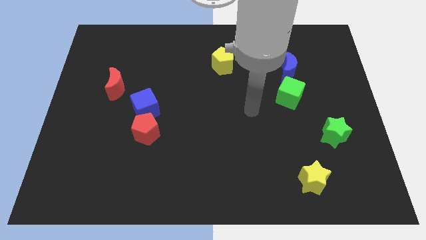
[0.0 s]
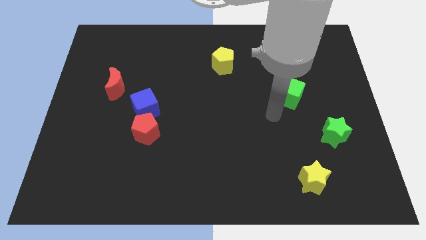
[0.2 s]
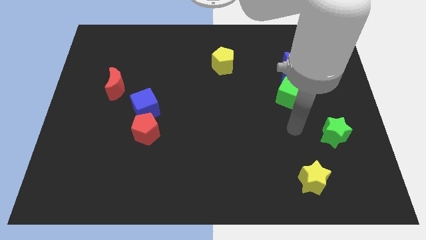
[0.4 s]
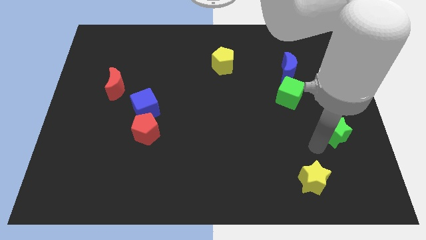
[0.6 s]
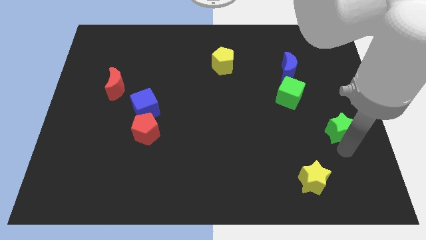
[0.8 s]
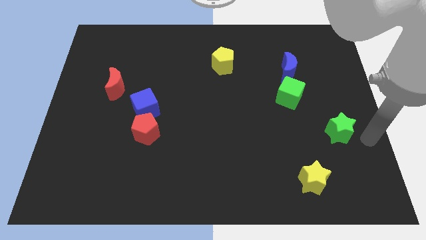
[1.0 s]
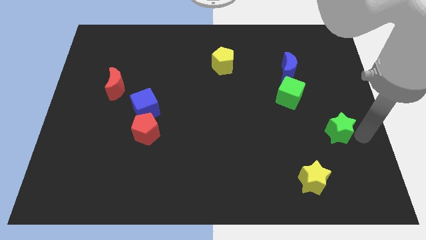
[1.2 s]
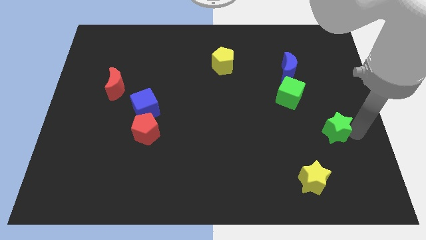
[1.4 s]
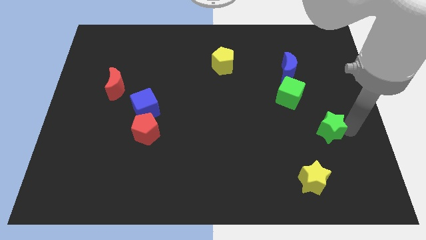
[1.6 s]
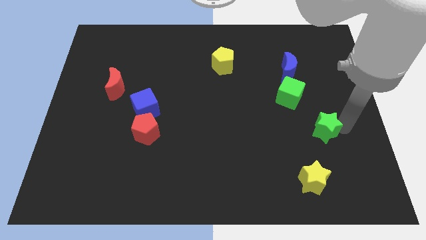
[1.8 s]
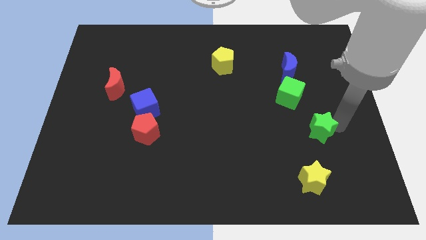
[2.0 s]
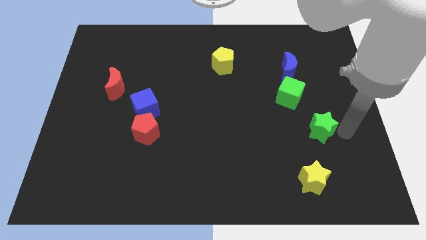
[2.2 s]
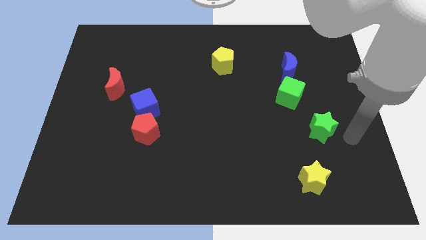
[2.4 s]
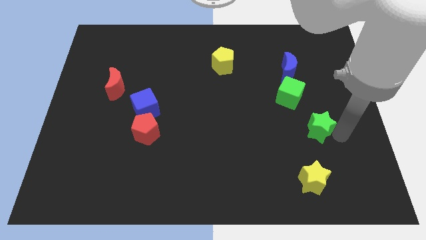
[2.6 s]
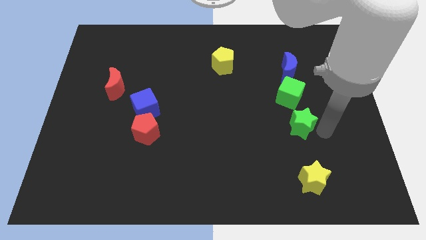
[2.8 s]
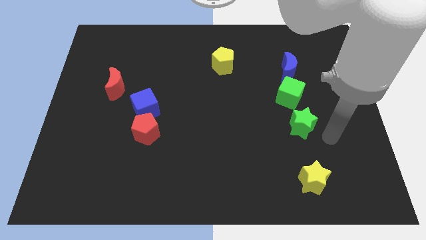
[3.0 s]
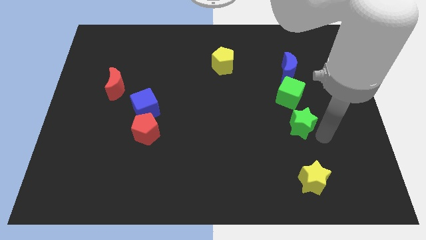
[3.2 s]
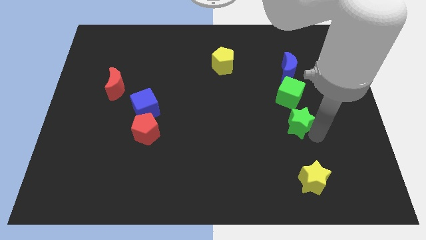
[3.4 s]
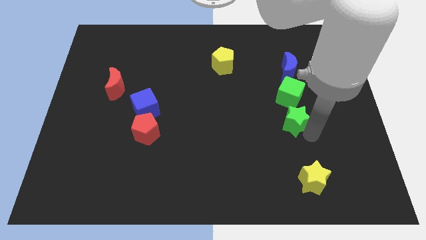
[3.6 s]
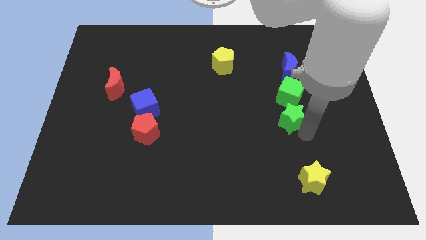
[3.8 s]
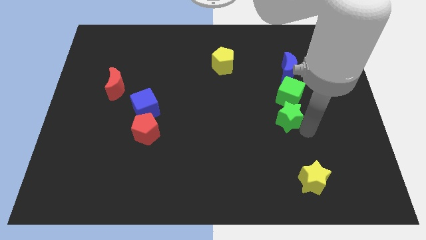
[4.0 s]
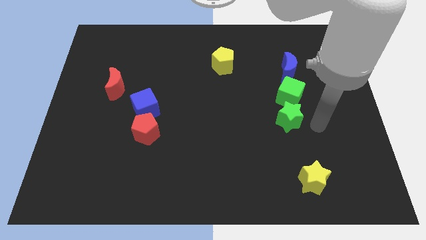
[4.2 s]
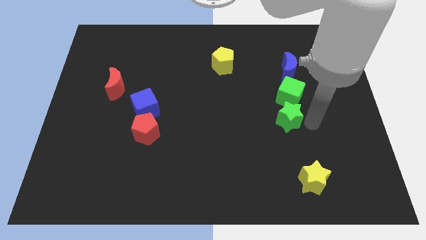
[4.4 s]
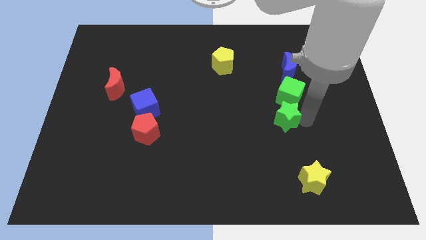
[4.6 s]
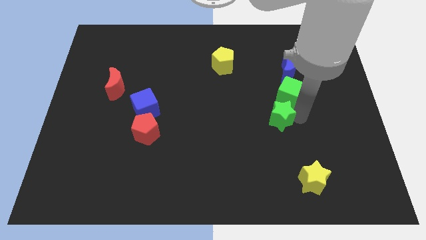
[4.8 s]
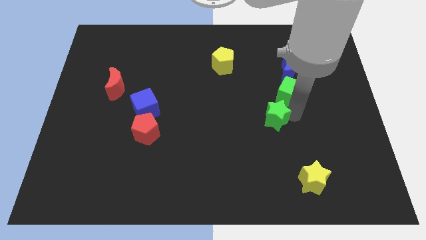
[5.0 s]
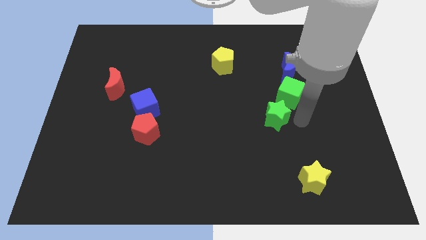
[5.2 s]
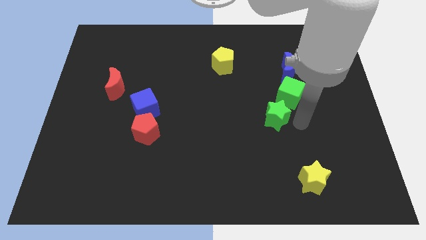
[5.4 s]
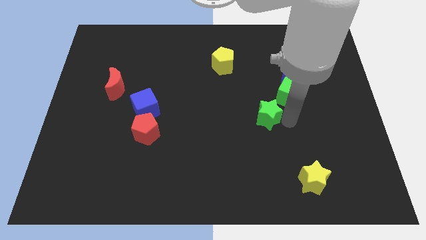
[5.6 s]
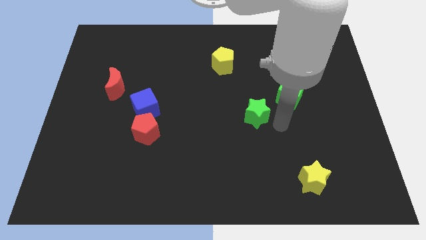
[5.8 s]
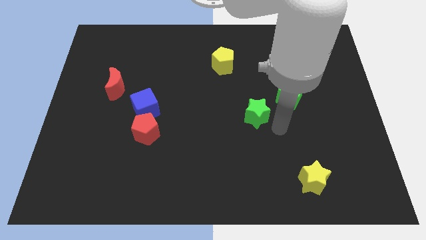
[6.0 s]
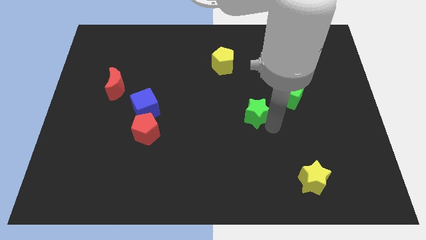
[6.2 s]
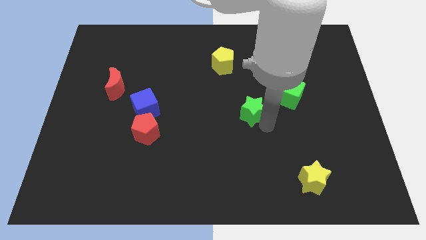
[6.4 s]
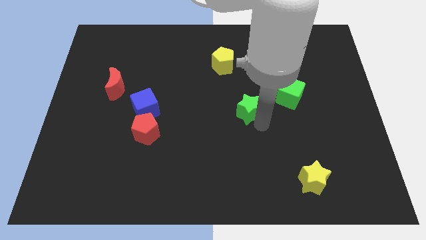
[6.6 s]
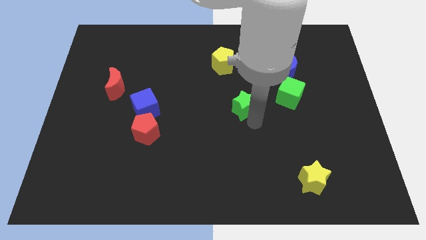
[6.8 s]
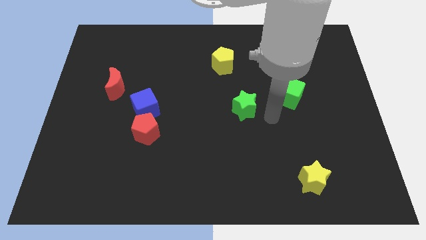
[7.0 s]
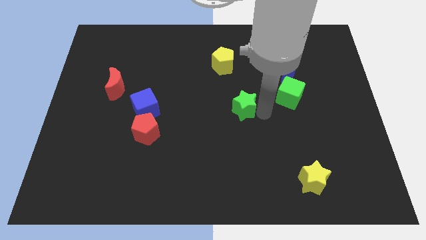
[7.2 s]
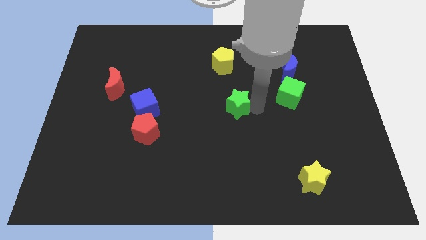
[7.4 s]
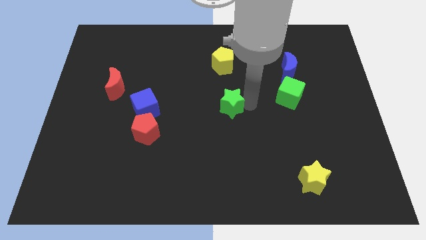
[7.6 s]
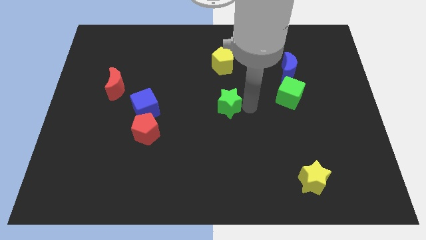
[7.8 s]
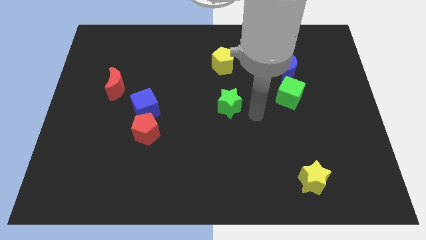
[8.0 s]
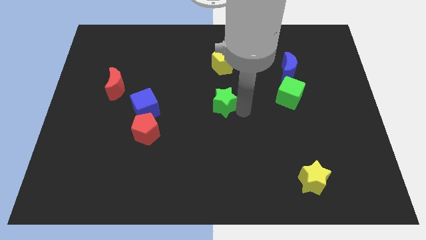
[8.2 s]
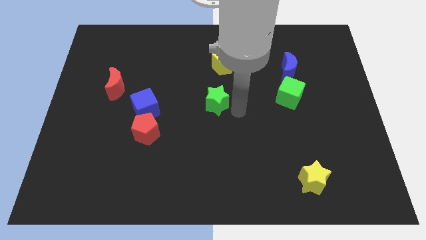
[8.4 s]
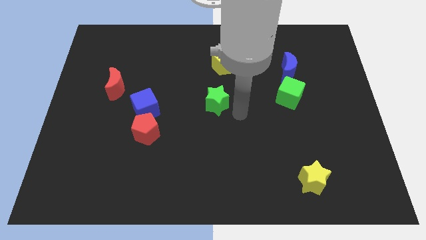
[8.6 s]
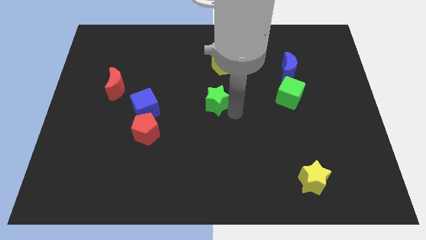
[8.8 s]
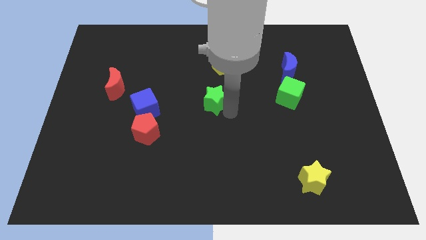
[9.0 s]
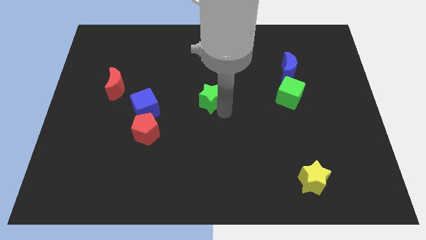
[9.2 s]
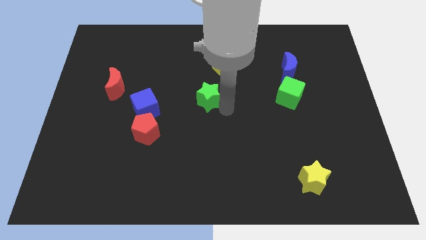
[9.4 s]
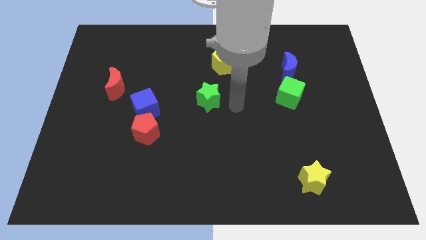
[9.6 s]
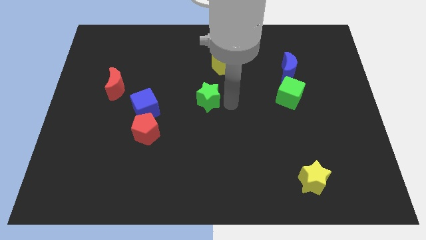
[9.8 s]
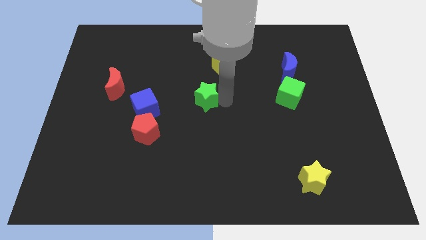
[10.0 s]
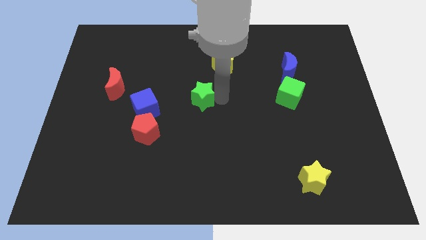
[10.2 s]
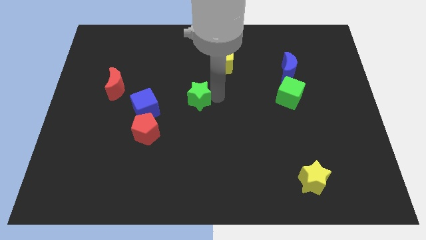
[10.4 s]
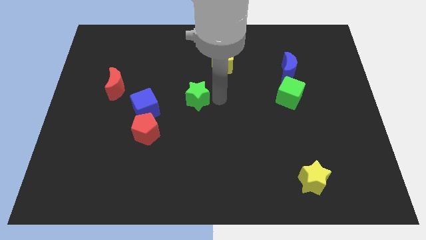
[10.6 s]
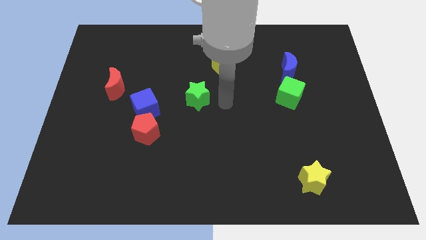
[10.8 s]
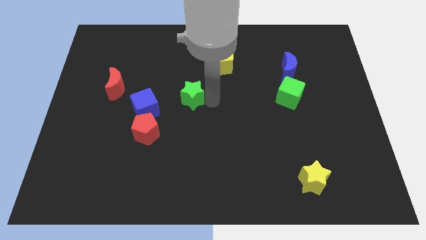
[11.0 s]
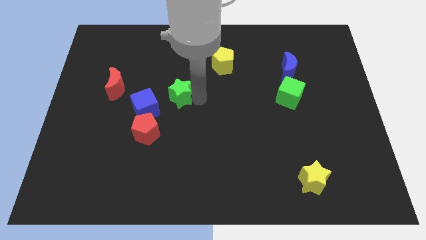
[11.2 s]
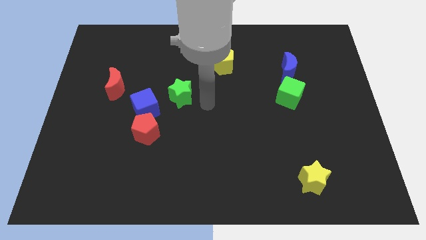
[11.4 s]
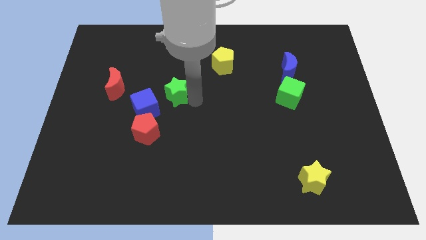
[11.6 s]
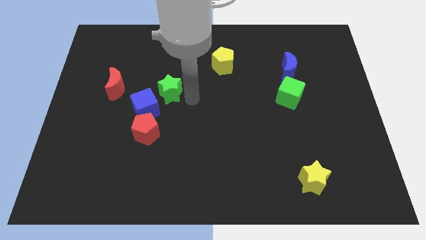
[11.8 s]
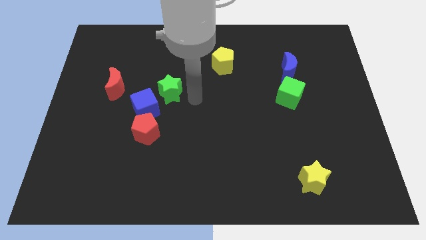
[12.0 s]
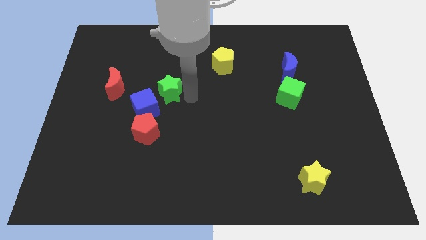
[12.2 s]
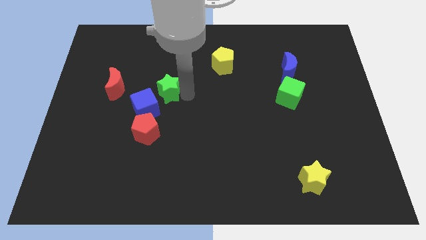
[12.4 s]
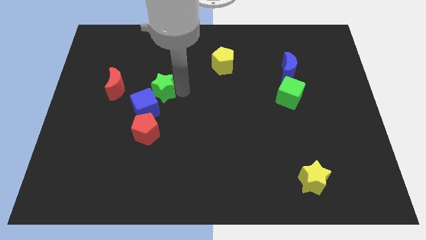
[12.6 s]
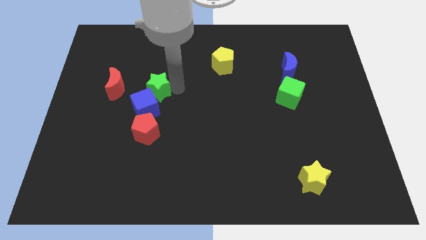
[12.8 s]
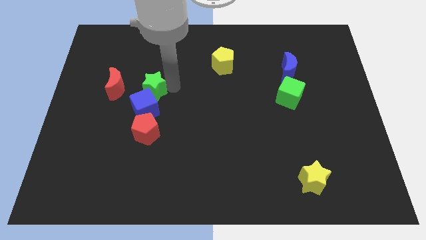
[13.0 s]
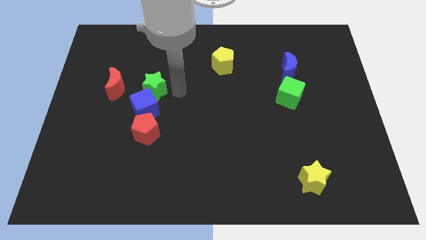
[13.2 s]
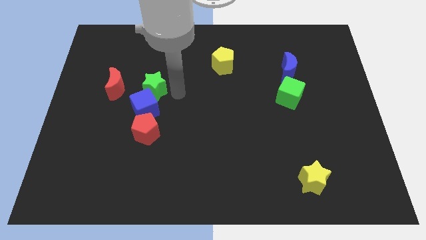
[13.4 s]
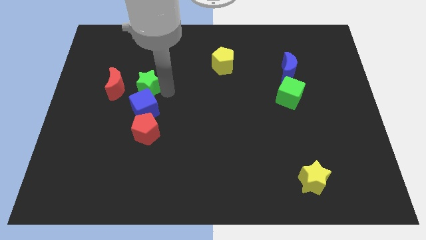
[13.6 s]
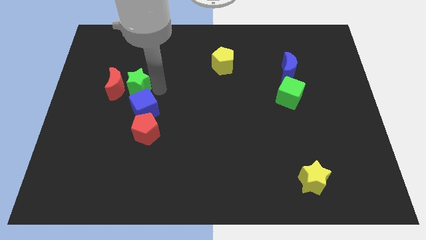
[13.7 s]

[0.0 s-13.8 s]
move the green star towards the red moon

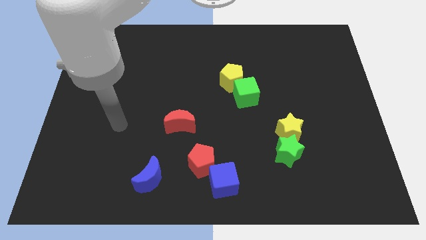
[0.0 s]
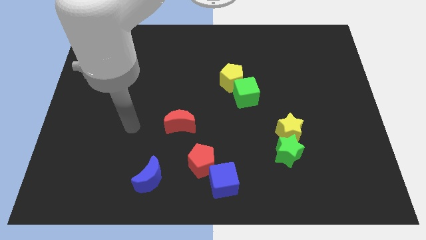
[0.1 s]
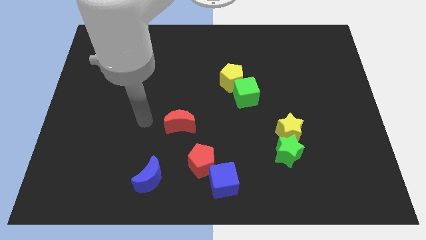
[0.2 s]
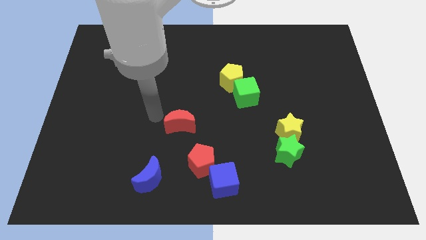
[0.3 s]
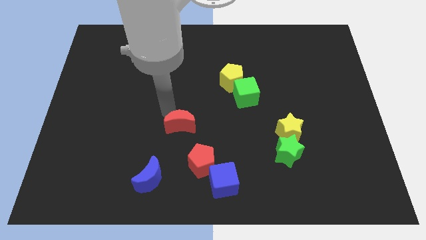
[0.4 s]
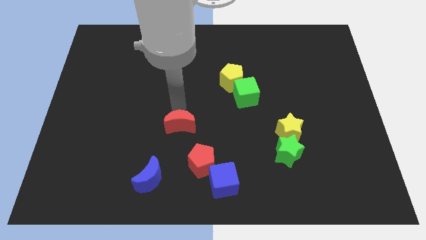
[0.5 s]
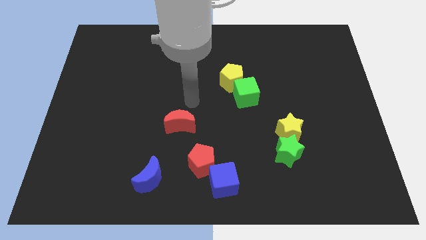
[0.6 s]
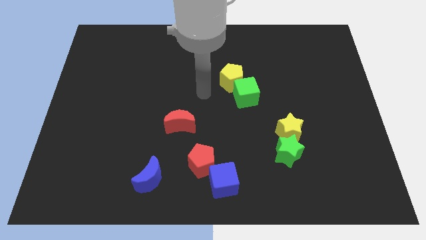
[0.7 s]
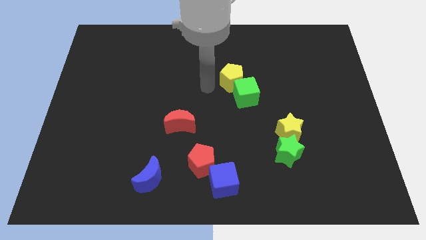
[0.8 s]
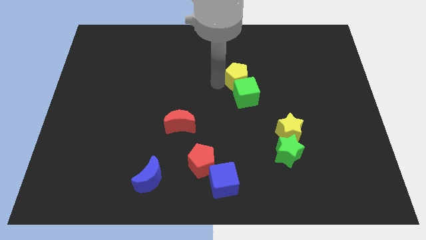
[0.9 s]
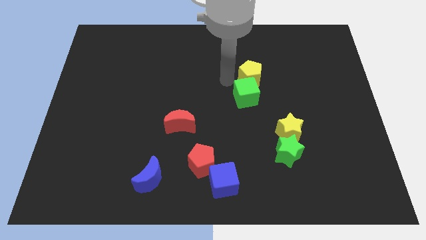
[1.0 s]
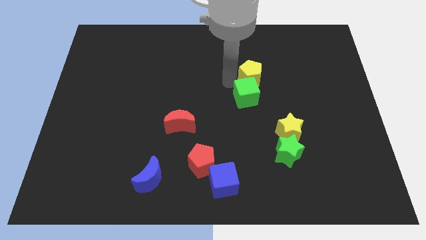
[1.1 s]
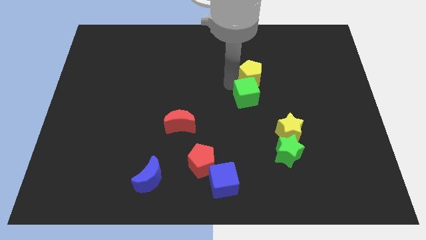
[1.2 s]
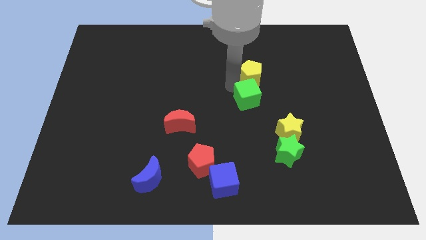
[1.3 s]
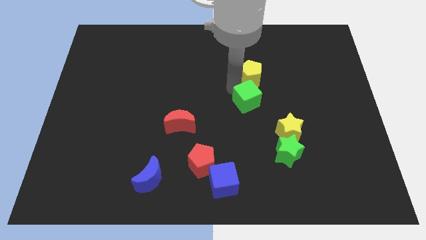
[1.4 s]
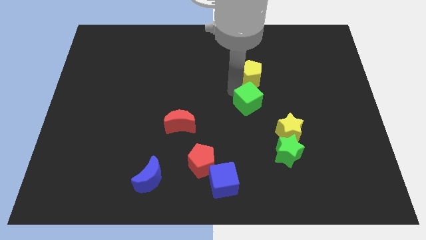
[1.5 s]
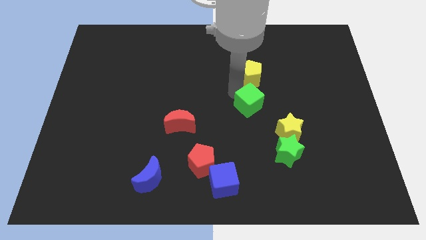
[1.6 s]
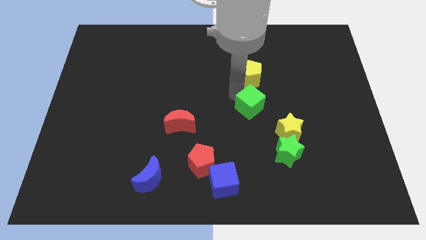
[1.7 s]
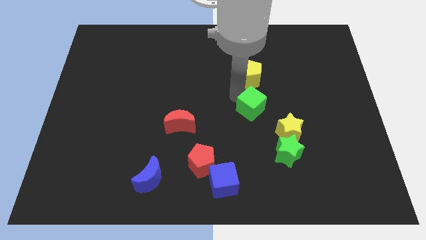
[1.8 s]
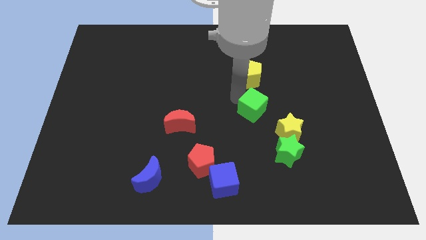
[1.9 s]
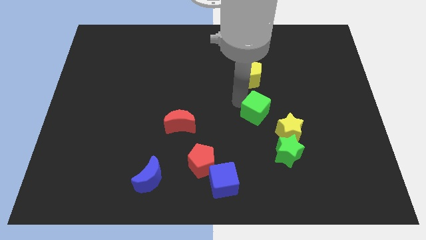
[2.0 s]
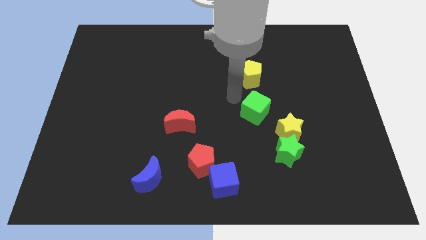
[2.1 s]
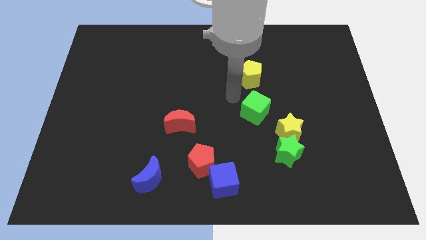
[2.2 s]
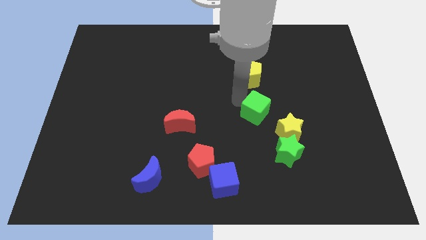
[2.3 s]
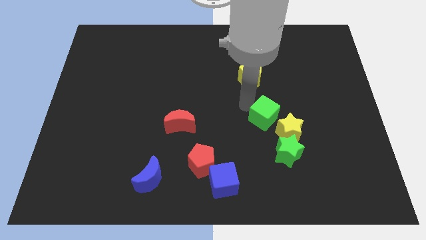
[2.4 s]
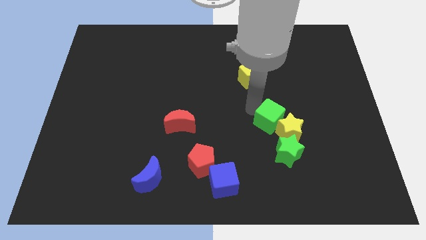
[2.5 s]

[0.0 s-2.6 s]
move the green cube close to the yellow star
